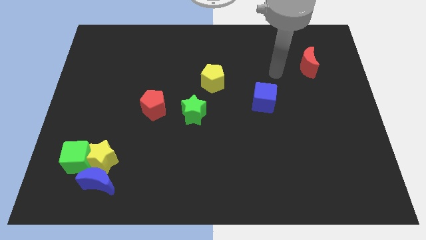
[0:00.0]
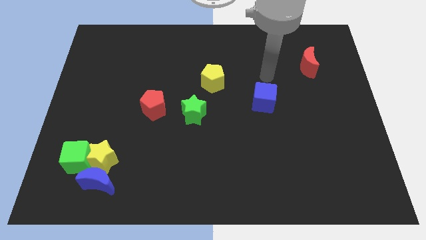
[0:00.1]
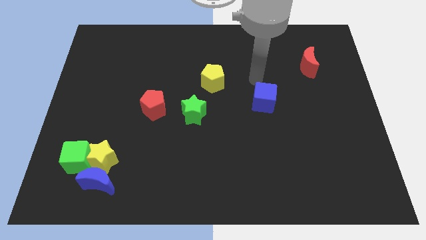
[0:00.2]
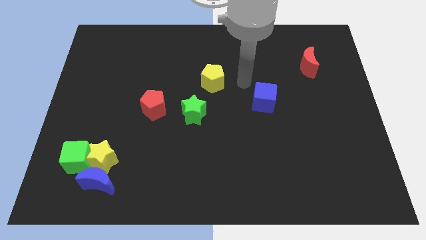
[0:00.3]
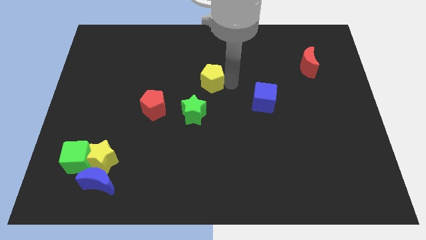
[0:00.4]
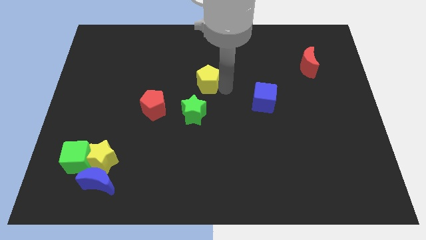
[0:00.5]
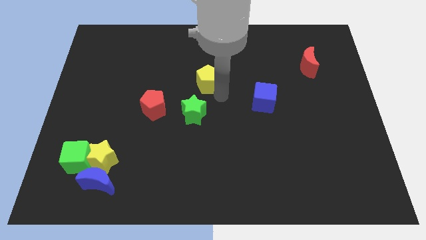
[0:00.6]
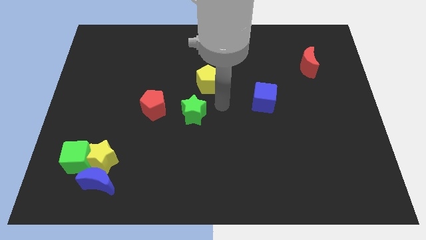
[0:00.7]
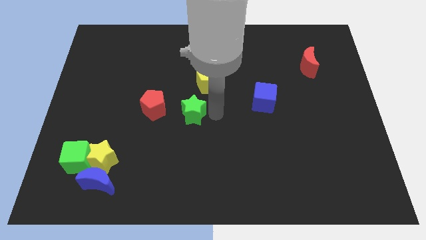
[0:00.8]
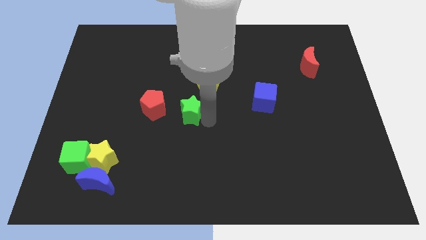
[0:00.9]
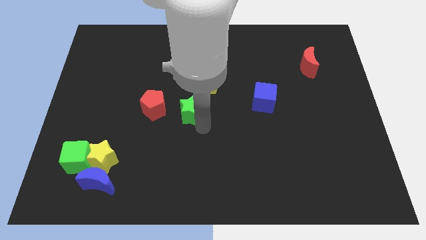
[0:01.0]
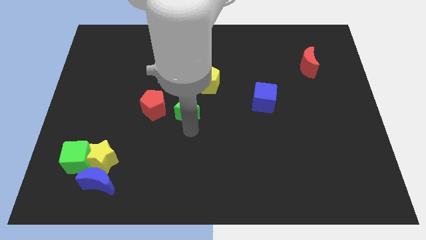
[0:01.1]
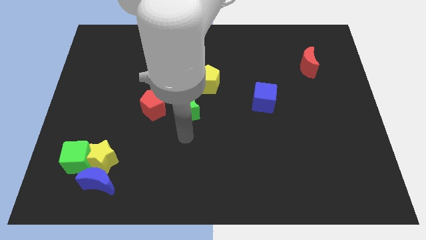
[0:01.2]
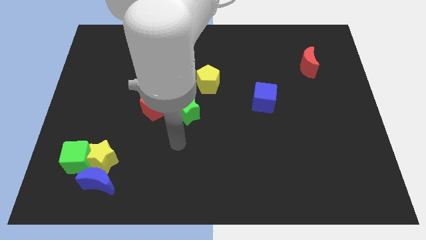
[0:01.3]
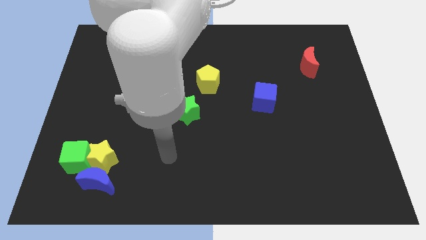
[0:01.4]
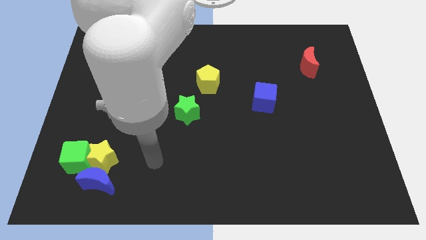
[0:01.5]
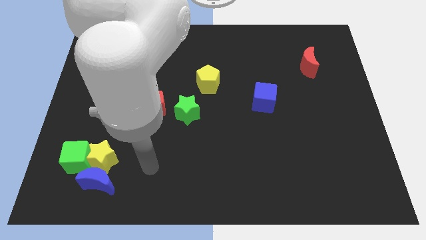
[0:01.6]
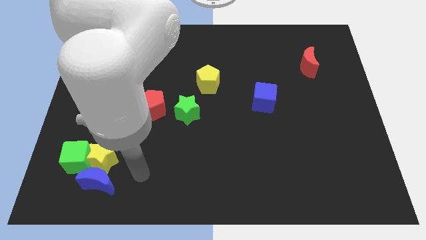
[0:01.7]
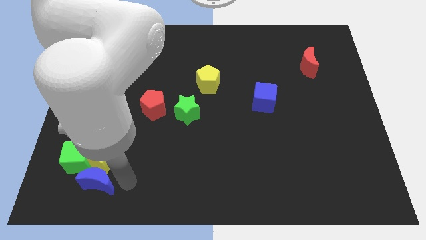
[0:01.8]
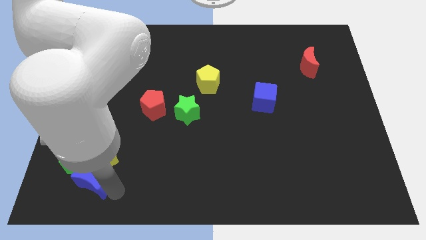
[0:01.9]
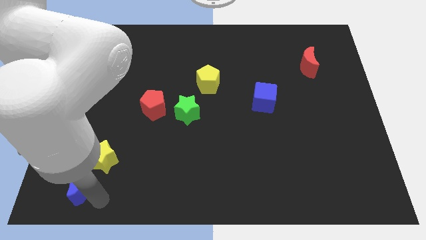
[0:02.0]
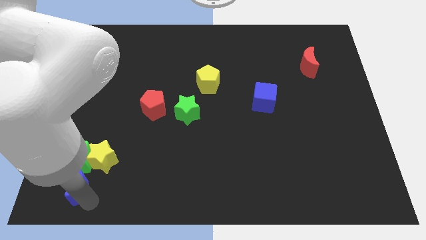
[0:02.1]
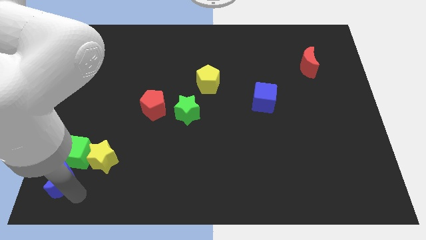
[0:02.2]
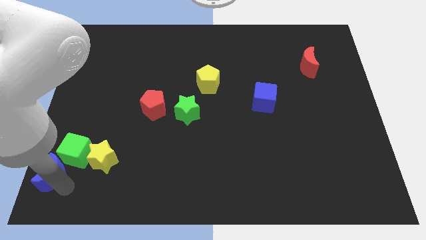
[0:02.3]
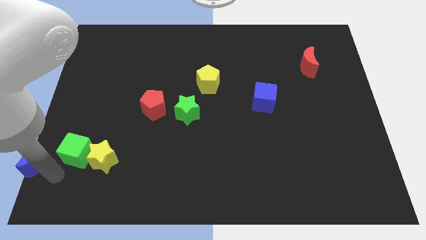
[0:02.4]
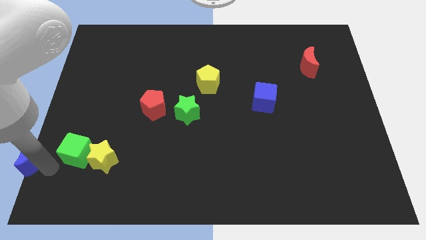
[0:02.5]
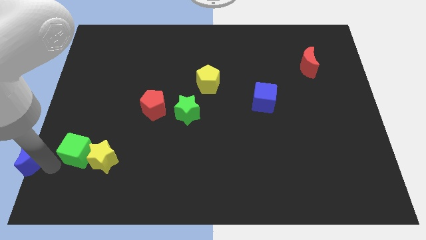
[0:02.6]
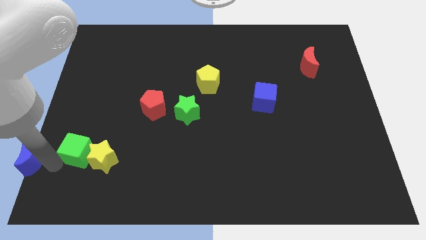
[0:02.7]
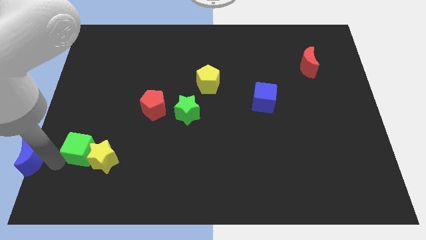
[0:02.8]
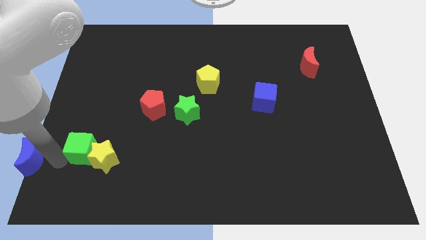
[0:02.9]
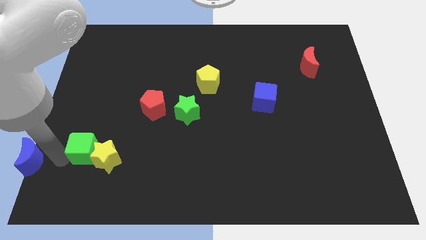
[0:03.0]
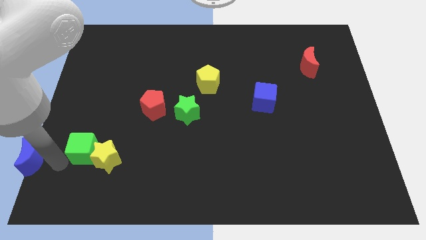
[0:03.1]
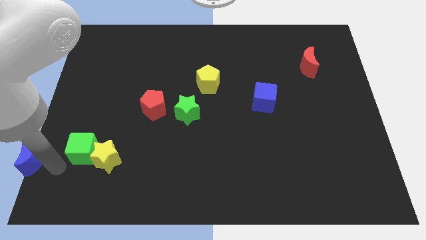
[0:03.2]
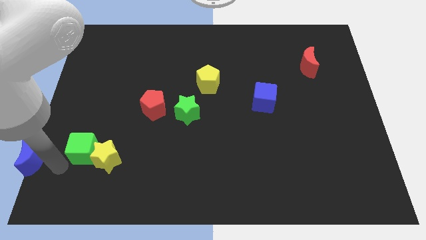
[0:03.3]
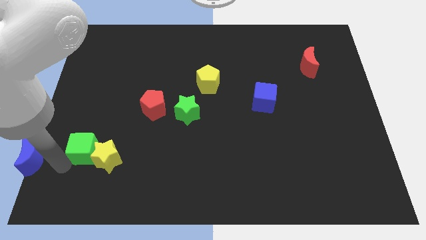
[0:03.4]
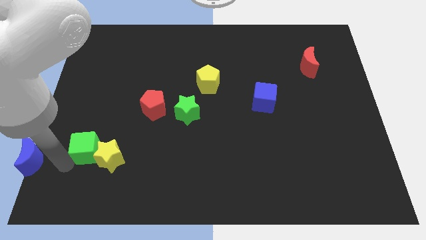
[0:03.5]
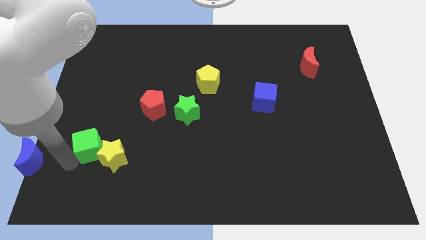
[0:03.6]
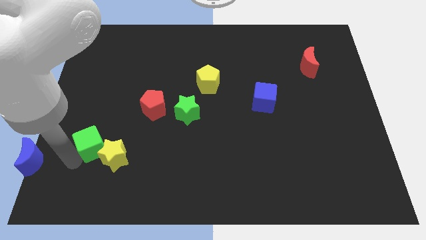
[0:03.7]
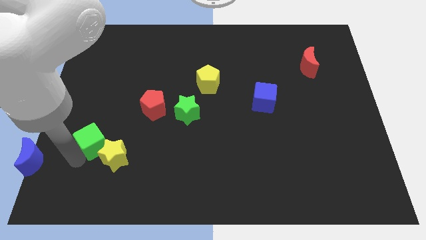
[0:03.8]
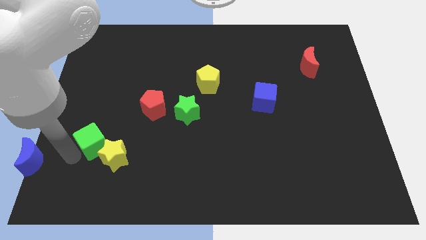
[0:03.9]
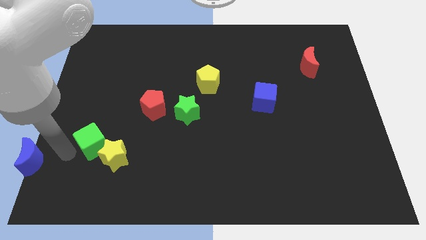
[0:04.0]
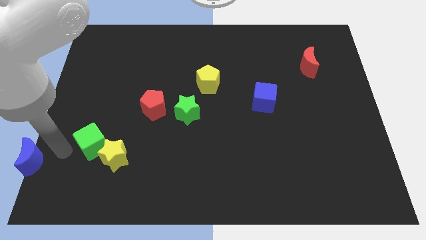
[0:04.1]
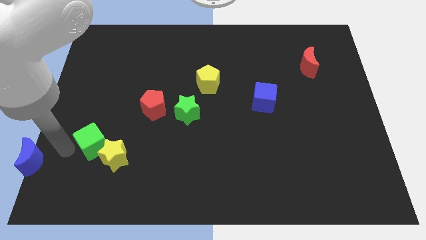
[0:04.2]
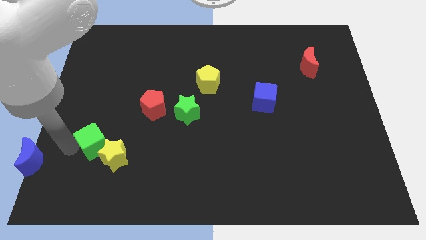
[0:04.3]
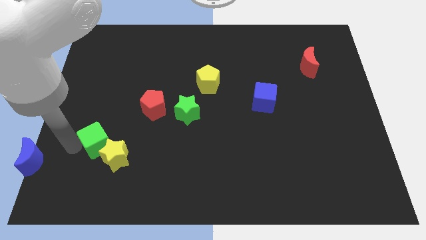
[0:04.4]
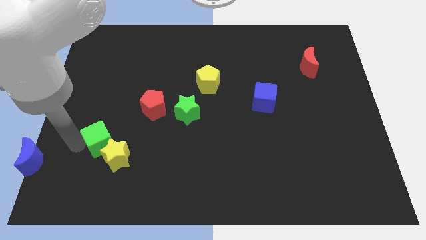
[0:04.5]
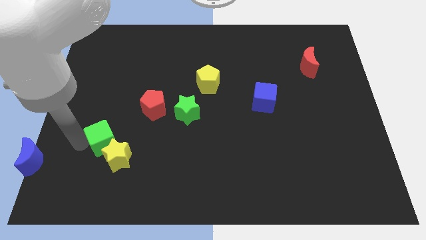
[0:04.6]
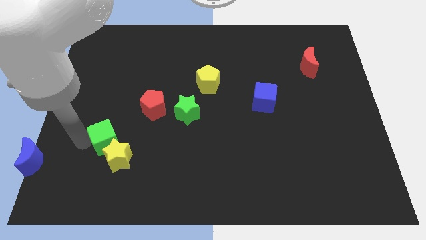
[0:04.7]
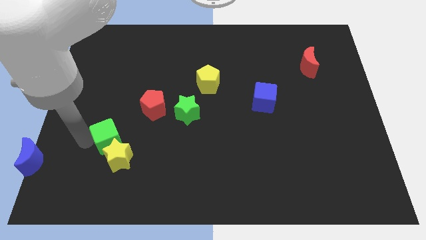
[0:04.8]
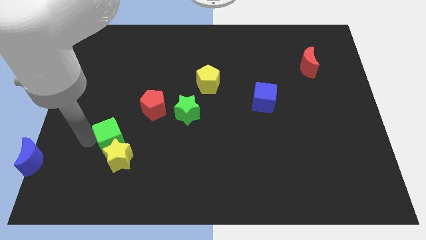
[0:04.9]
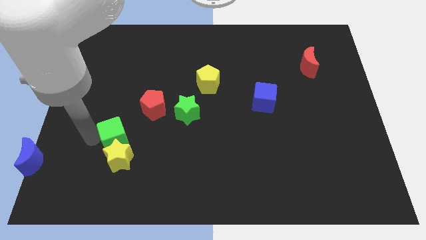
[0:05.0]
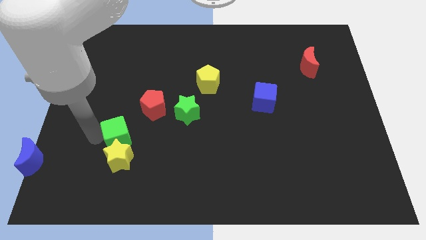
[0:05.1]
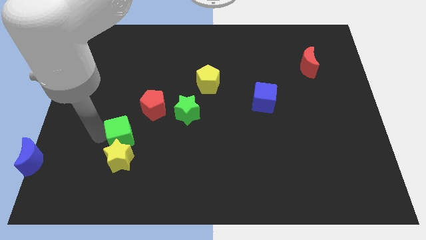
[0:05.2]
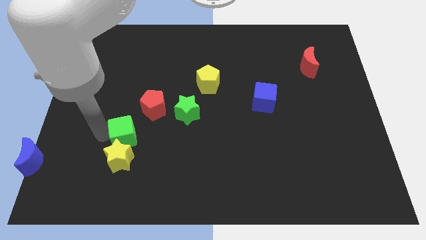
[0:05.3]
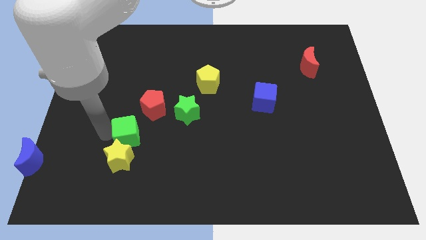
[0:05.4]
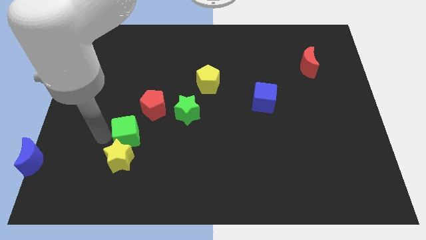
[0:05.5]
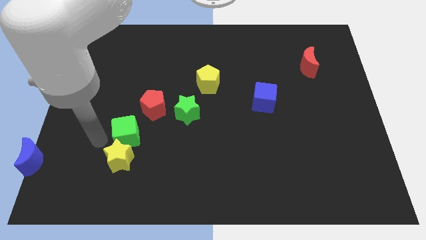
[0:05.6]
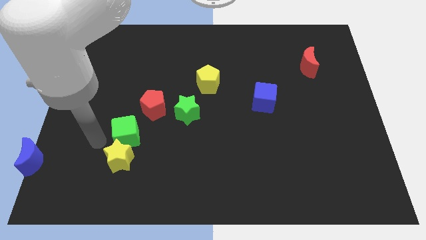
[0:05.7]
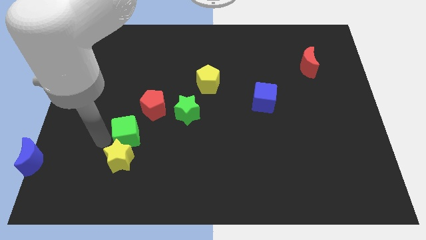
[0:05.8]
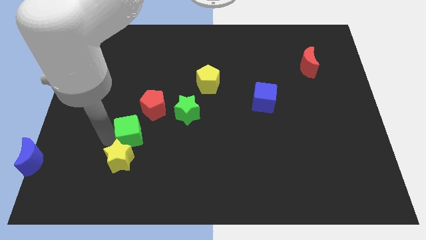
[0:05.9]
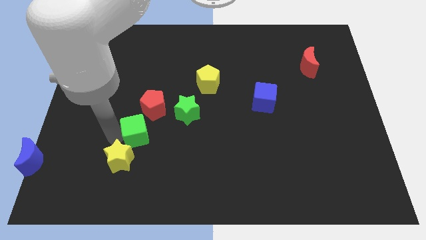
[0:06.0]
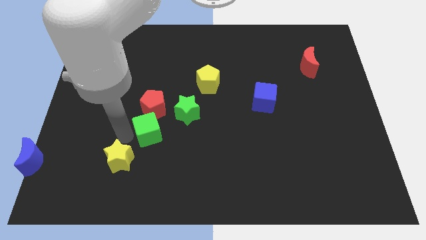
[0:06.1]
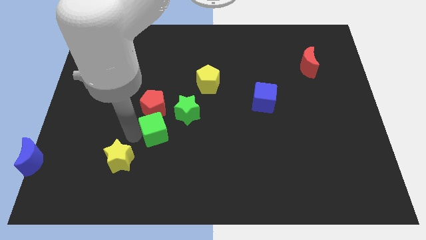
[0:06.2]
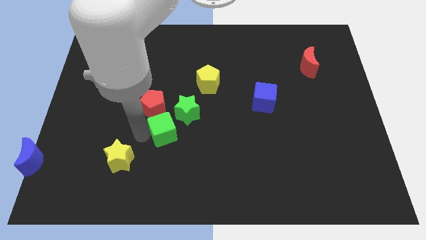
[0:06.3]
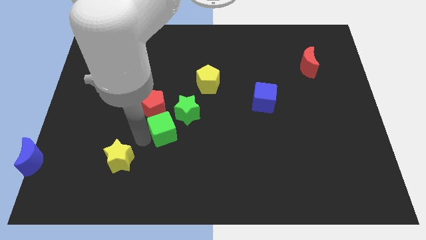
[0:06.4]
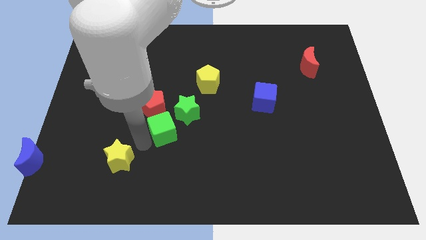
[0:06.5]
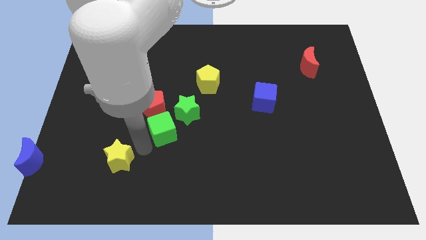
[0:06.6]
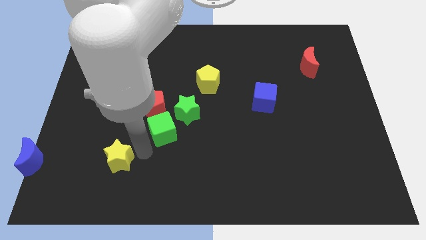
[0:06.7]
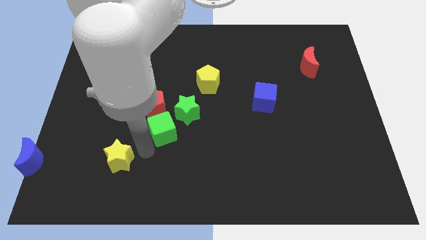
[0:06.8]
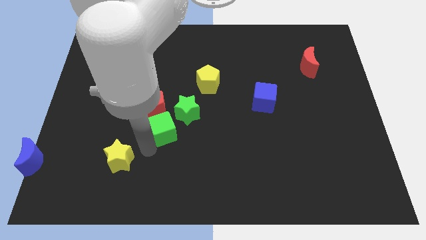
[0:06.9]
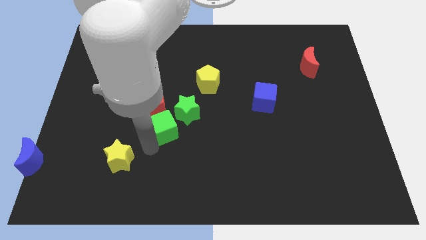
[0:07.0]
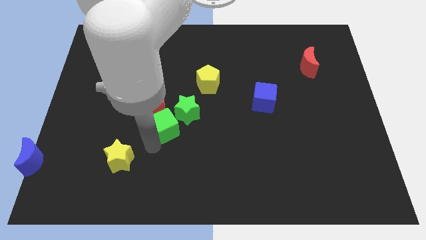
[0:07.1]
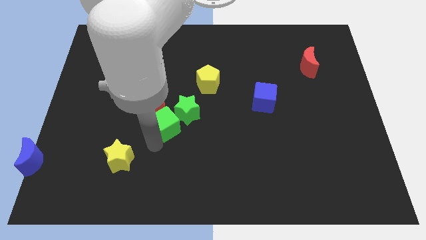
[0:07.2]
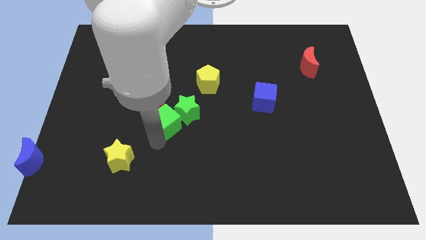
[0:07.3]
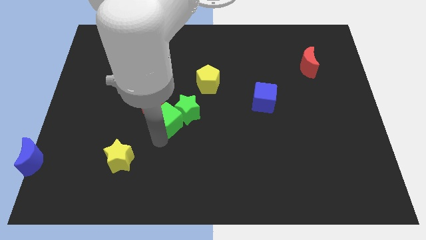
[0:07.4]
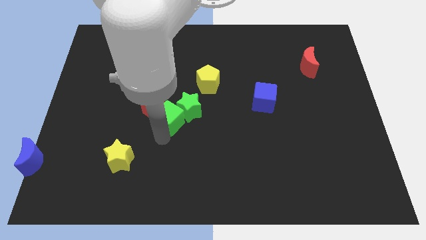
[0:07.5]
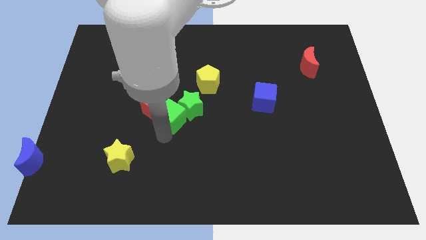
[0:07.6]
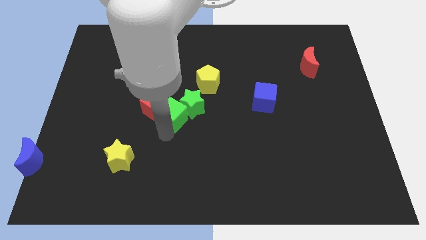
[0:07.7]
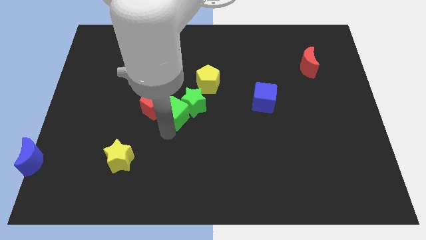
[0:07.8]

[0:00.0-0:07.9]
slide the green cube to the bottom left of the yellow pentagon
